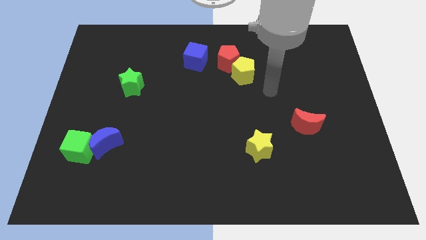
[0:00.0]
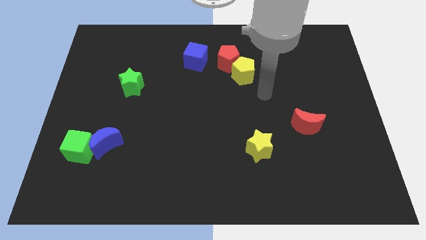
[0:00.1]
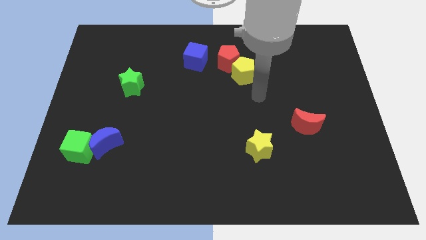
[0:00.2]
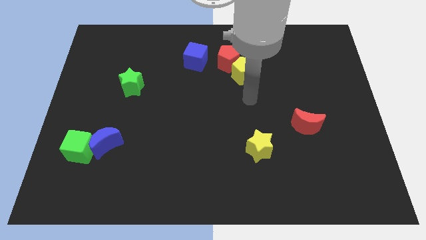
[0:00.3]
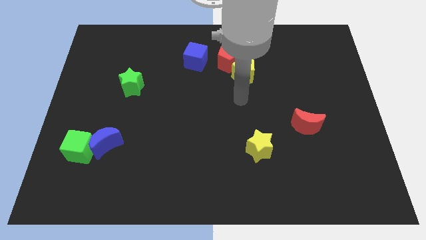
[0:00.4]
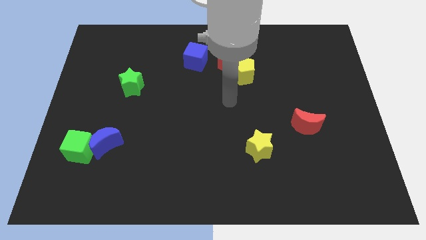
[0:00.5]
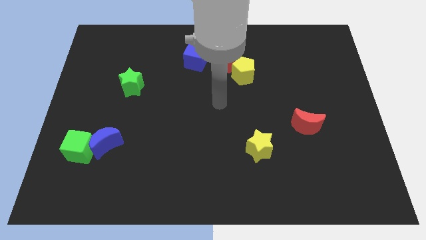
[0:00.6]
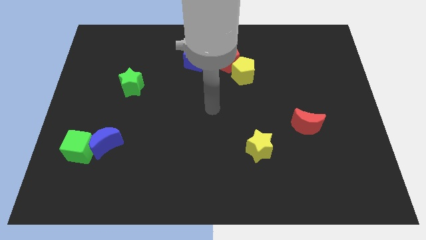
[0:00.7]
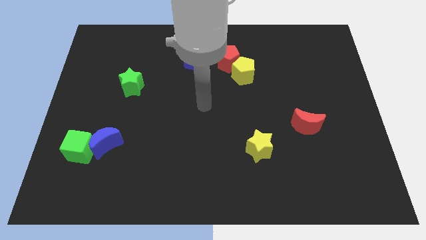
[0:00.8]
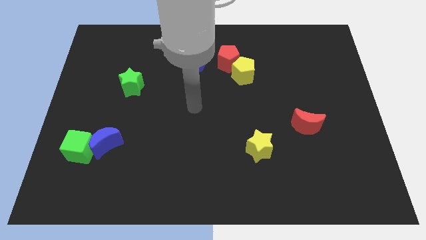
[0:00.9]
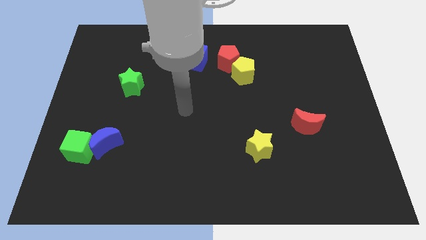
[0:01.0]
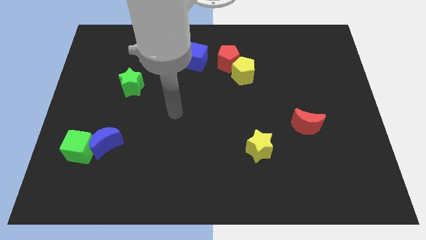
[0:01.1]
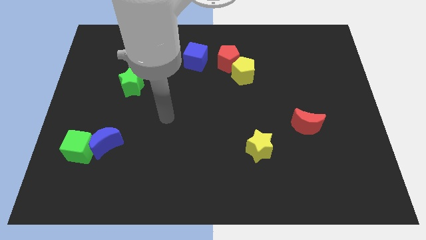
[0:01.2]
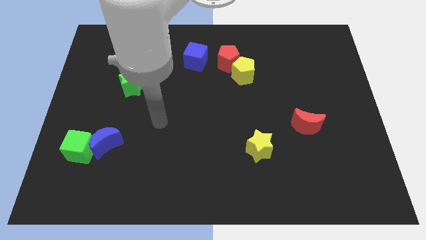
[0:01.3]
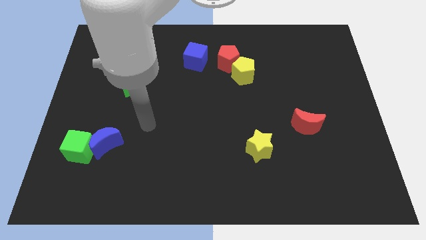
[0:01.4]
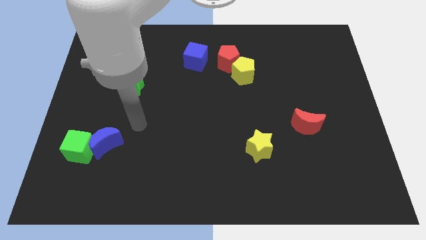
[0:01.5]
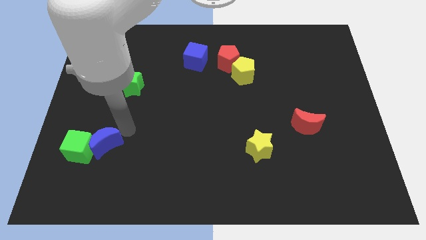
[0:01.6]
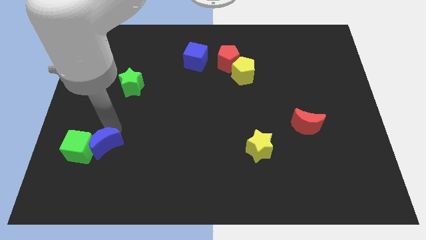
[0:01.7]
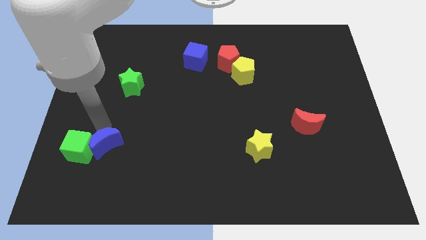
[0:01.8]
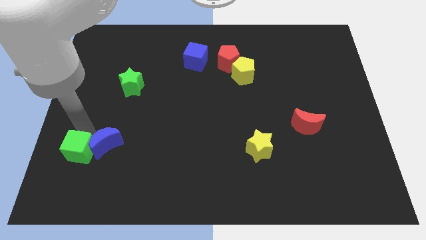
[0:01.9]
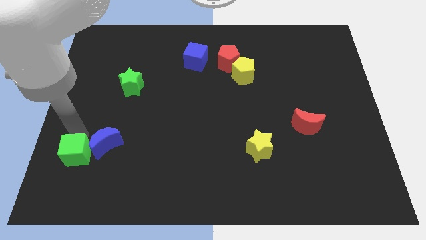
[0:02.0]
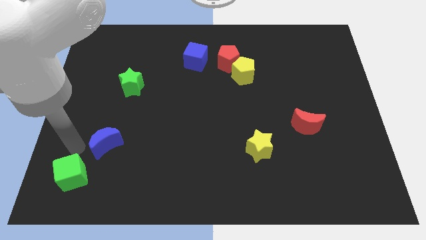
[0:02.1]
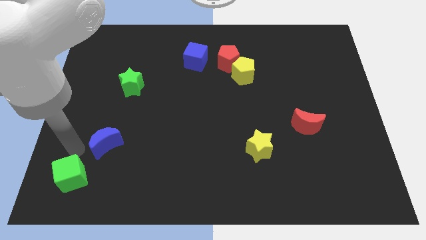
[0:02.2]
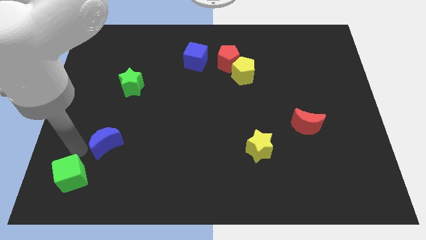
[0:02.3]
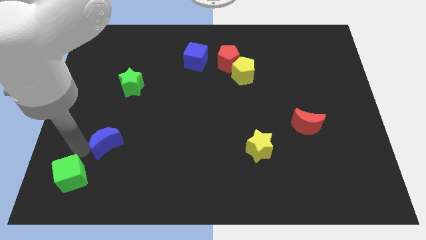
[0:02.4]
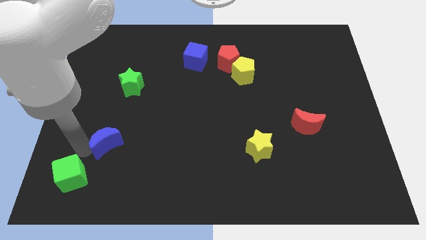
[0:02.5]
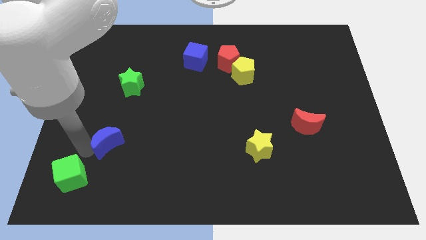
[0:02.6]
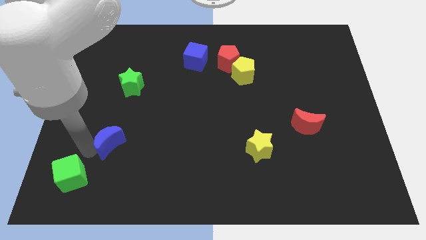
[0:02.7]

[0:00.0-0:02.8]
move the blue moon away from the green cube

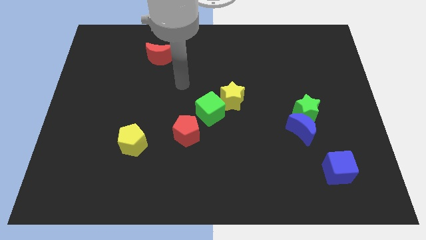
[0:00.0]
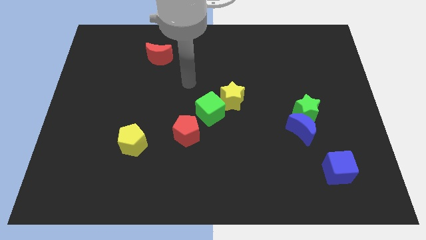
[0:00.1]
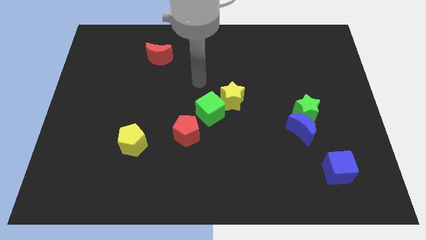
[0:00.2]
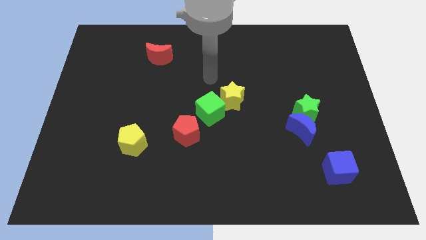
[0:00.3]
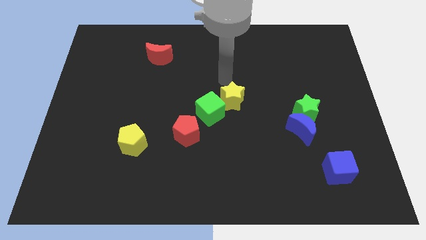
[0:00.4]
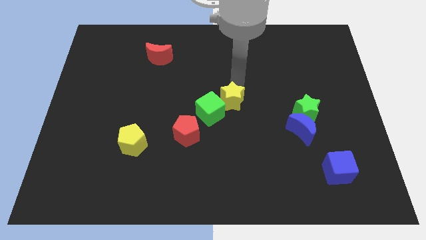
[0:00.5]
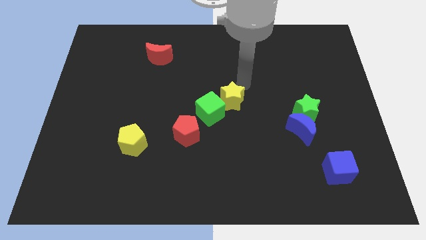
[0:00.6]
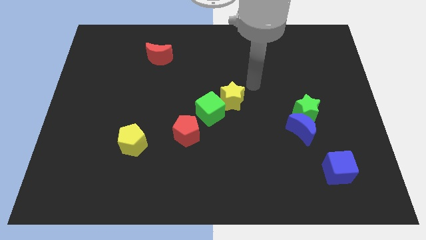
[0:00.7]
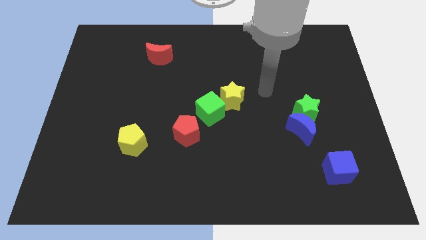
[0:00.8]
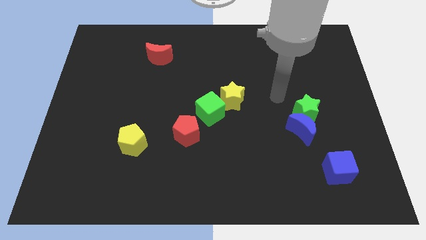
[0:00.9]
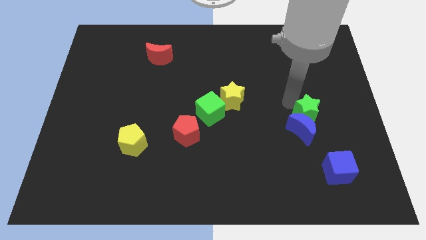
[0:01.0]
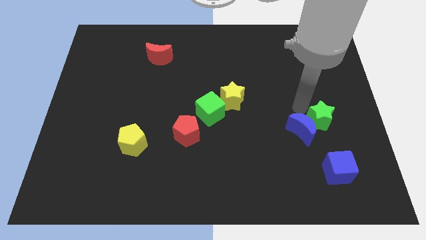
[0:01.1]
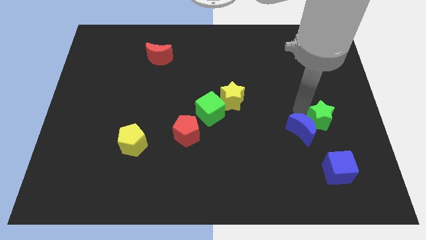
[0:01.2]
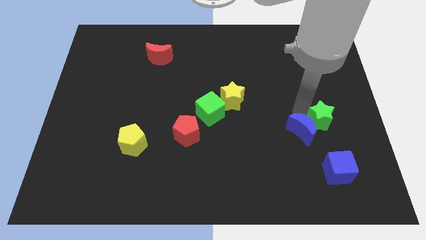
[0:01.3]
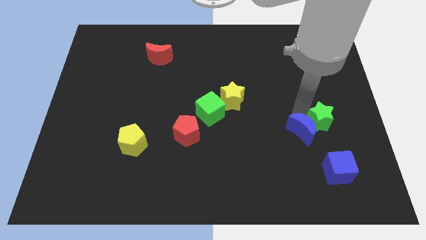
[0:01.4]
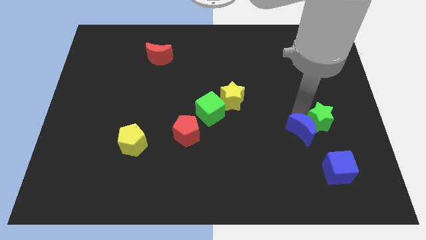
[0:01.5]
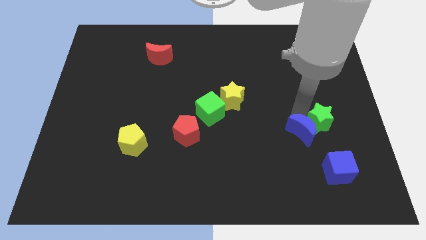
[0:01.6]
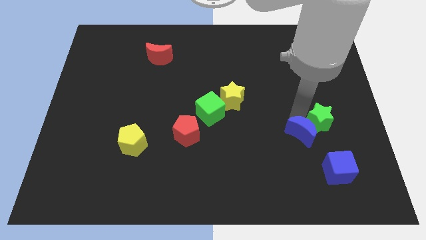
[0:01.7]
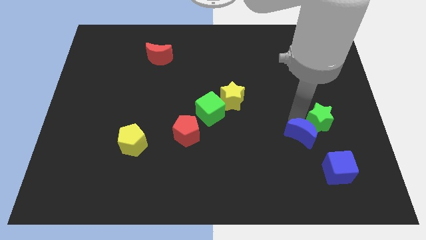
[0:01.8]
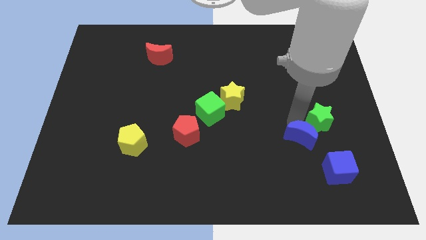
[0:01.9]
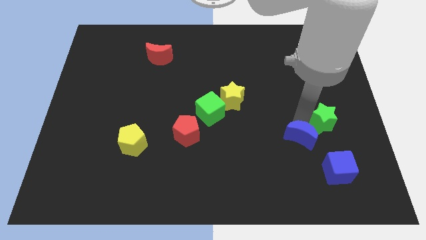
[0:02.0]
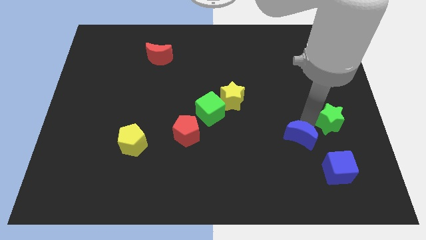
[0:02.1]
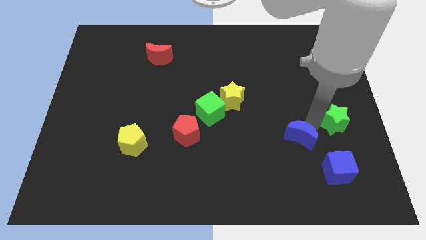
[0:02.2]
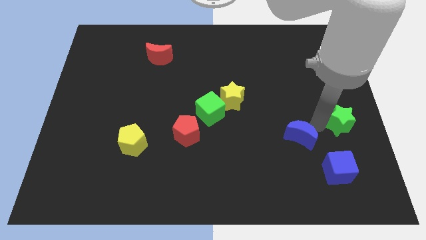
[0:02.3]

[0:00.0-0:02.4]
separate the blue moon from the green star

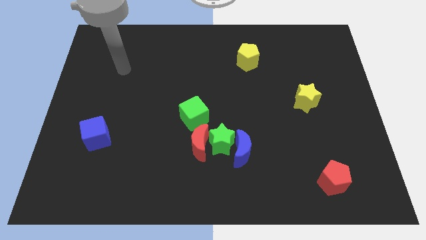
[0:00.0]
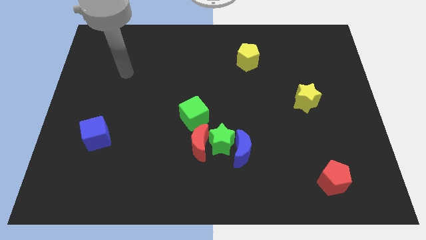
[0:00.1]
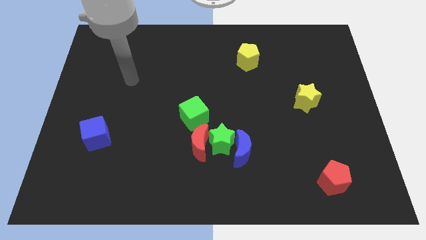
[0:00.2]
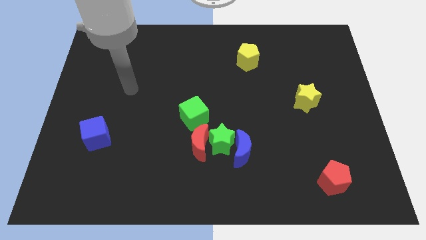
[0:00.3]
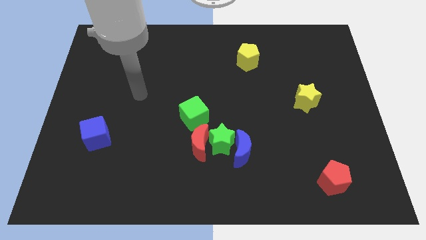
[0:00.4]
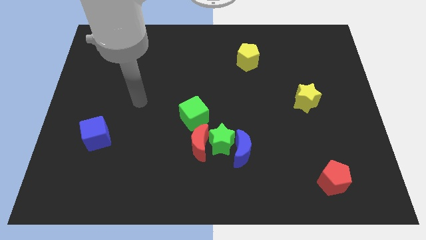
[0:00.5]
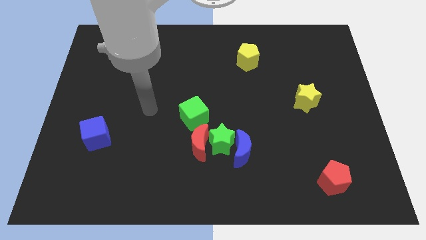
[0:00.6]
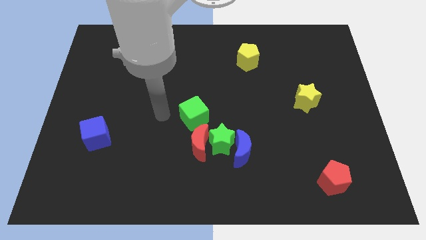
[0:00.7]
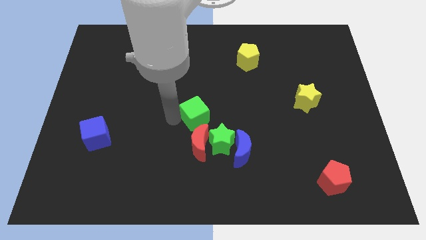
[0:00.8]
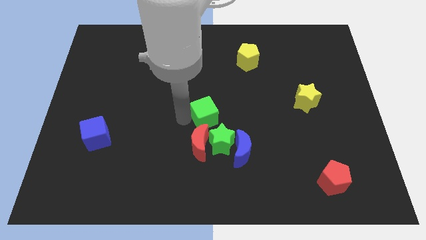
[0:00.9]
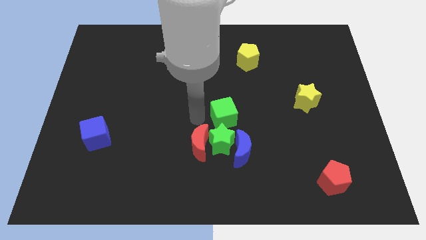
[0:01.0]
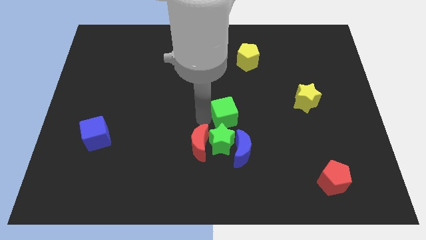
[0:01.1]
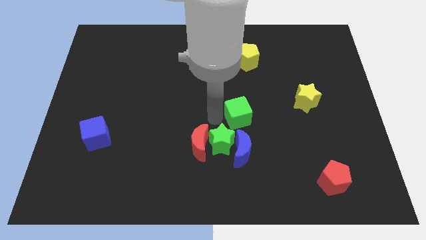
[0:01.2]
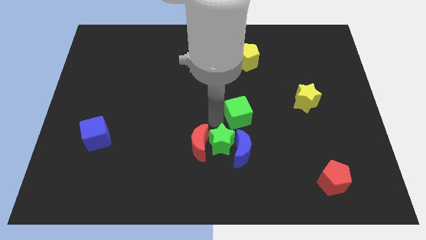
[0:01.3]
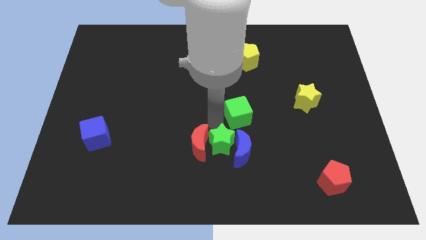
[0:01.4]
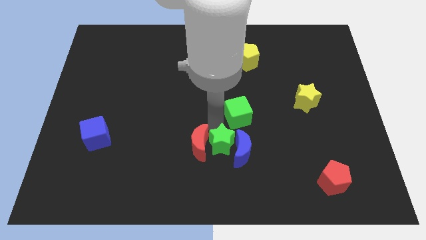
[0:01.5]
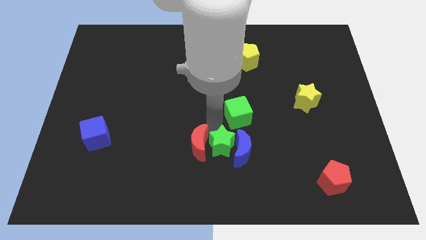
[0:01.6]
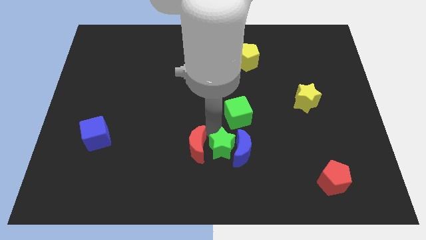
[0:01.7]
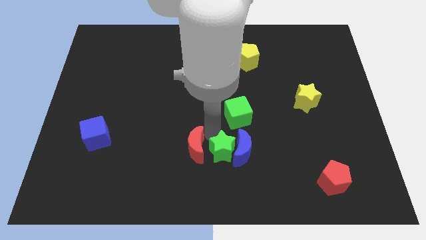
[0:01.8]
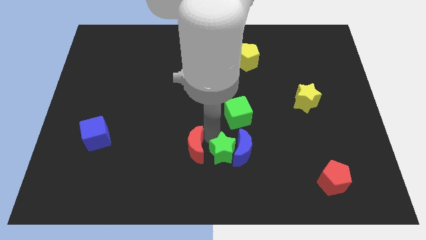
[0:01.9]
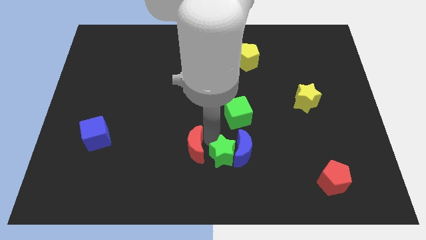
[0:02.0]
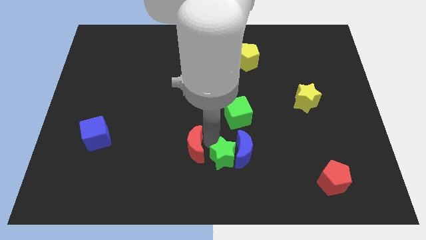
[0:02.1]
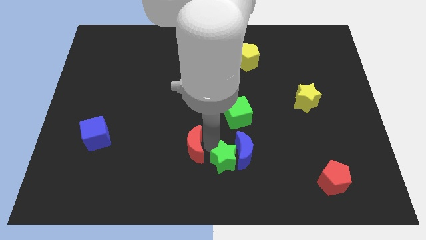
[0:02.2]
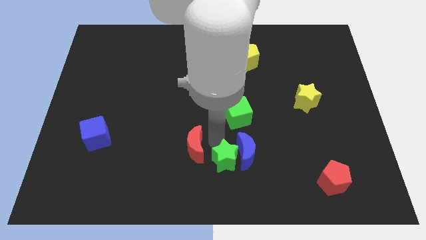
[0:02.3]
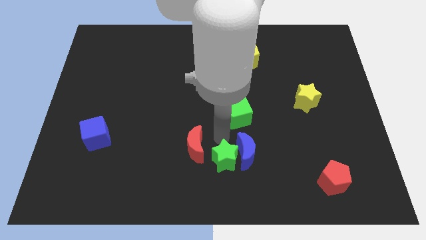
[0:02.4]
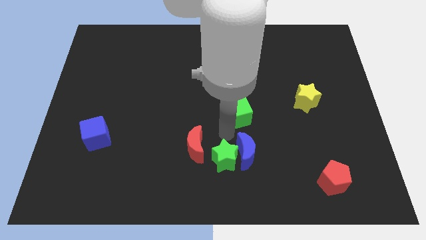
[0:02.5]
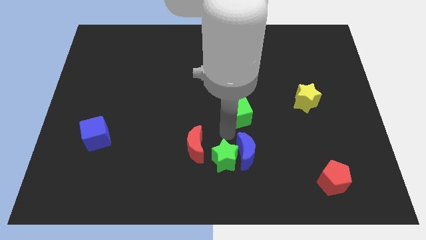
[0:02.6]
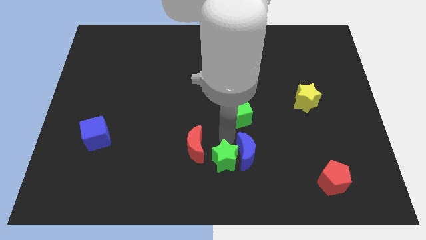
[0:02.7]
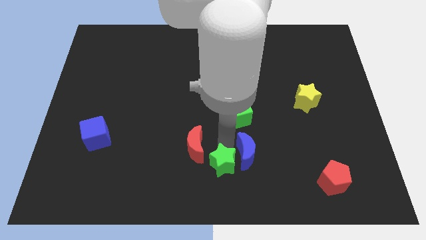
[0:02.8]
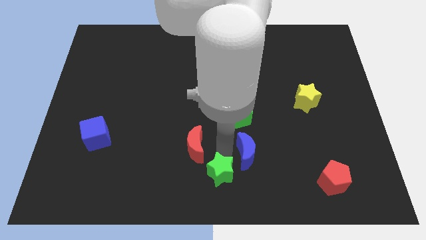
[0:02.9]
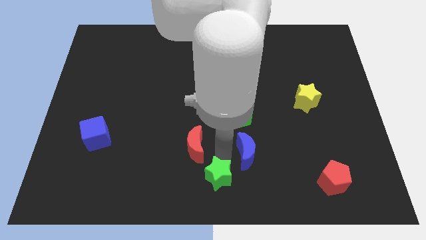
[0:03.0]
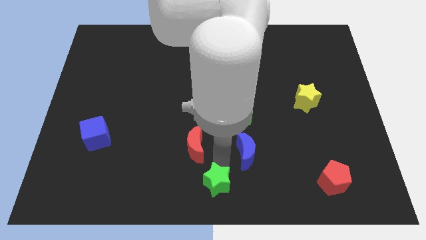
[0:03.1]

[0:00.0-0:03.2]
pull the green star apart from the group of blocks

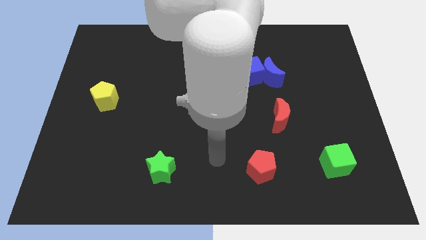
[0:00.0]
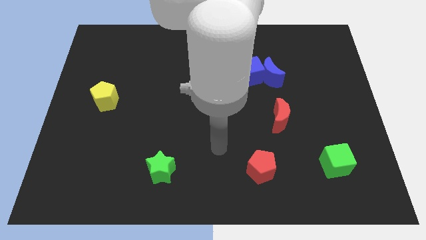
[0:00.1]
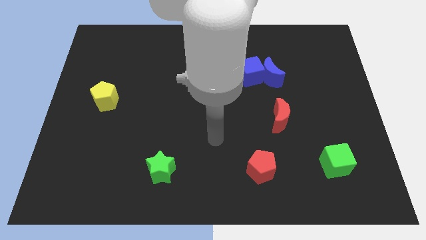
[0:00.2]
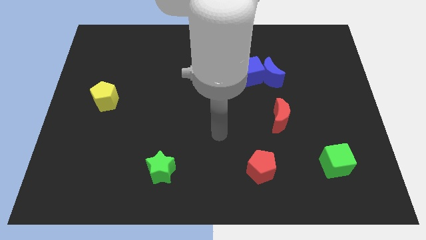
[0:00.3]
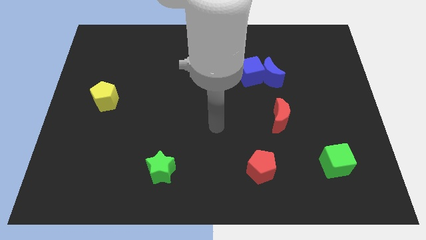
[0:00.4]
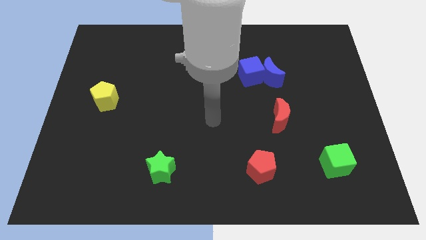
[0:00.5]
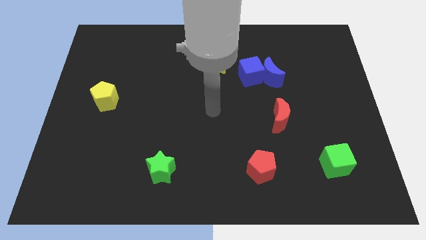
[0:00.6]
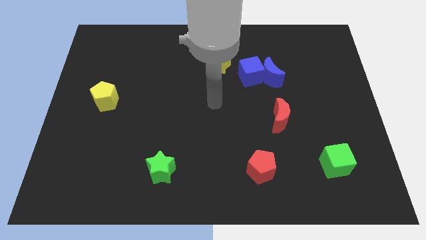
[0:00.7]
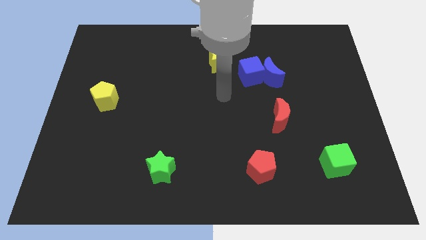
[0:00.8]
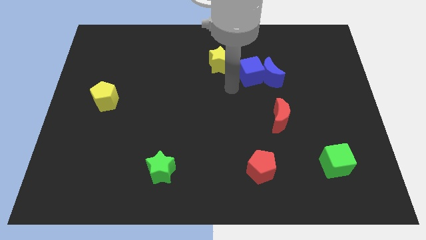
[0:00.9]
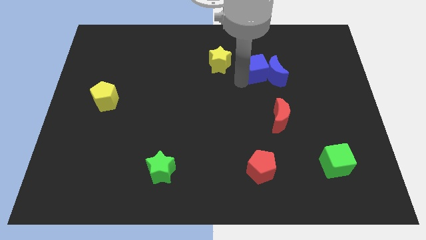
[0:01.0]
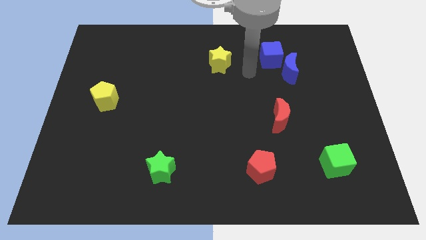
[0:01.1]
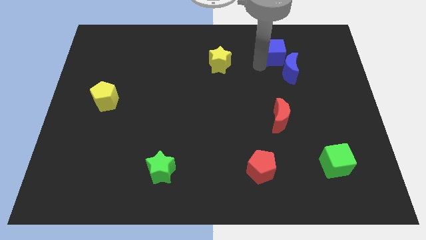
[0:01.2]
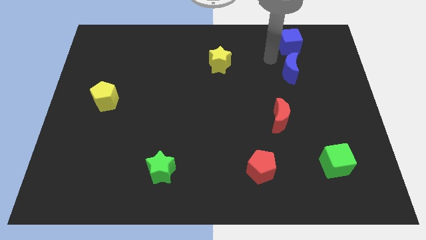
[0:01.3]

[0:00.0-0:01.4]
move the blue moon away from the blue cube
